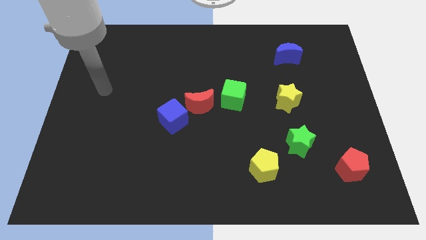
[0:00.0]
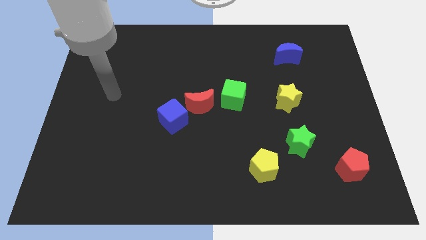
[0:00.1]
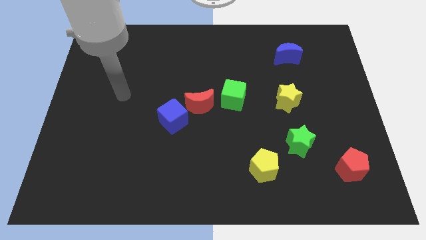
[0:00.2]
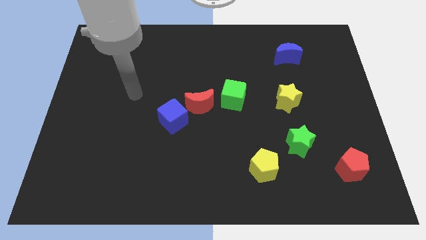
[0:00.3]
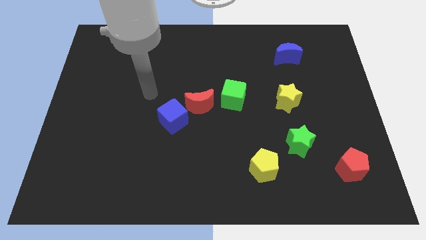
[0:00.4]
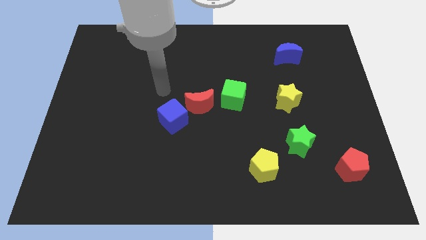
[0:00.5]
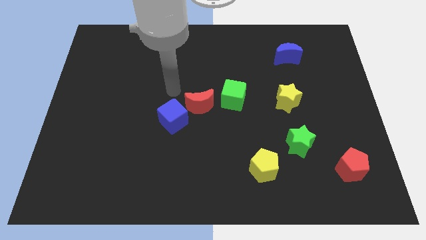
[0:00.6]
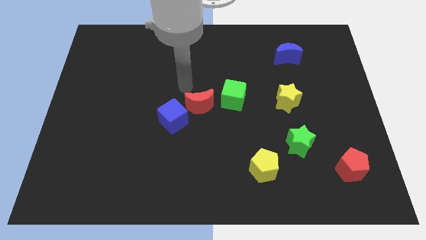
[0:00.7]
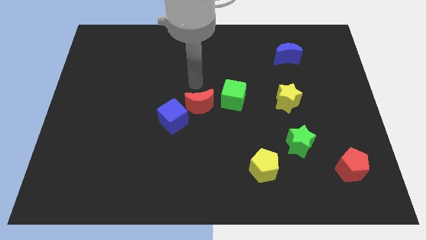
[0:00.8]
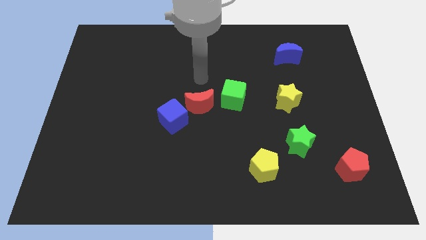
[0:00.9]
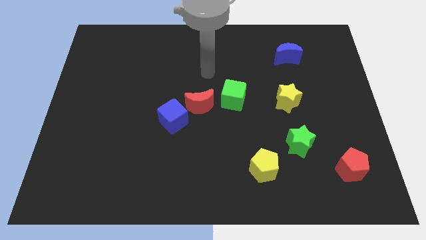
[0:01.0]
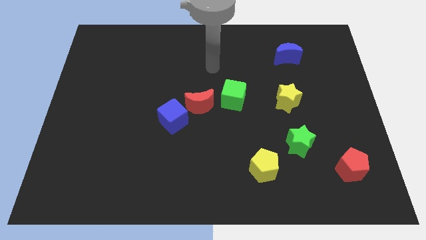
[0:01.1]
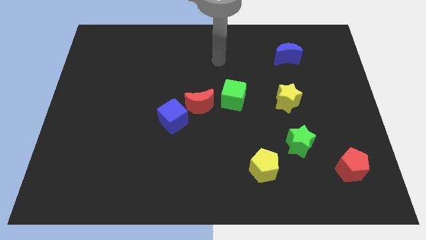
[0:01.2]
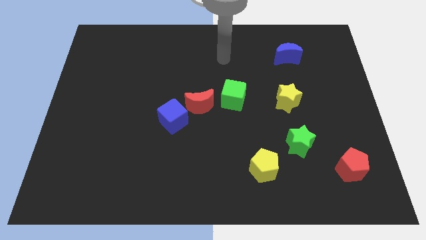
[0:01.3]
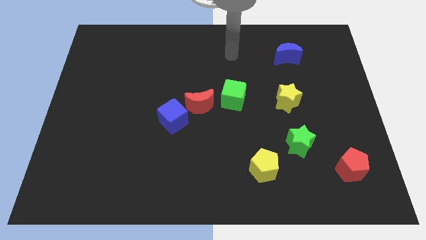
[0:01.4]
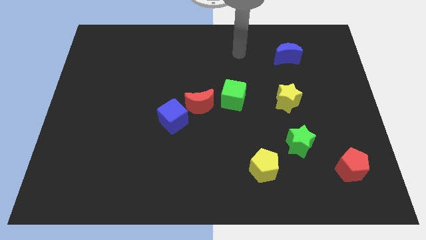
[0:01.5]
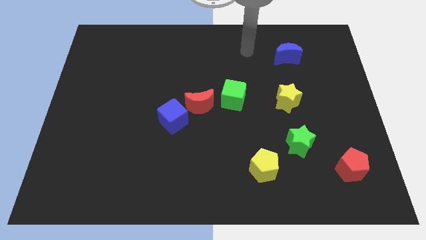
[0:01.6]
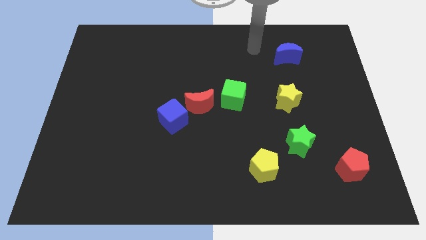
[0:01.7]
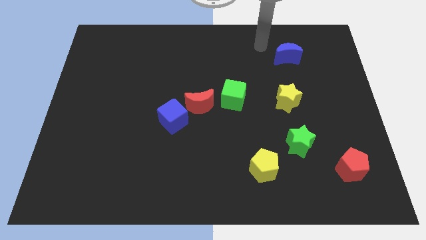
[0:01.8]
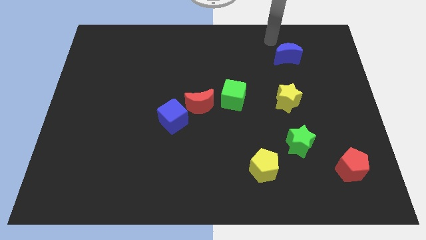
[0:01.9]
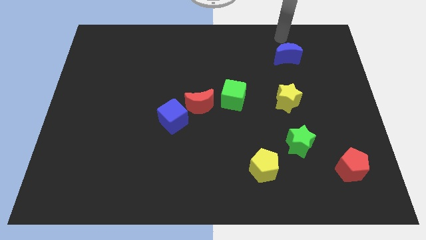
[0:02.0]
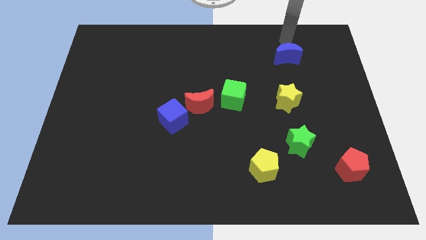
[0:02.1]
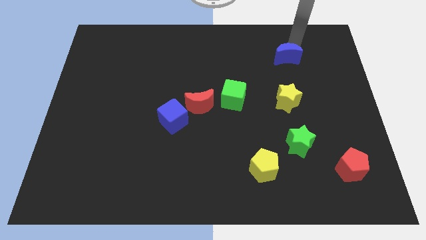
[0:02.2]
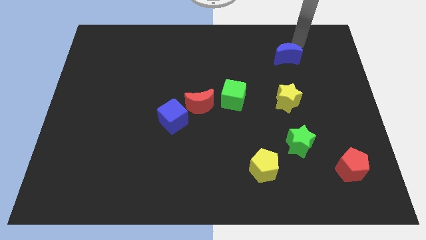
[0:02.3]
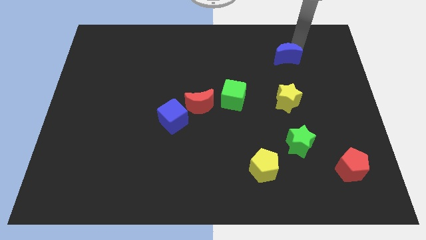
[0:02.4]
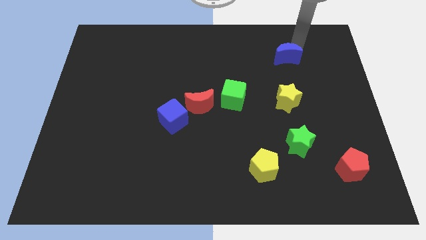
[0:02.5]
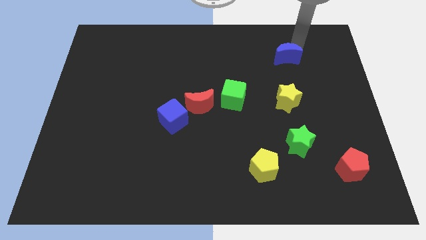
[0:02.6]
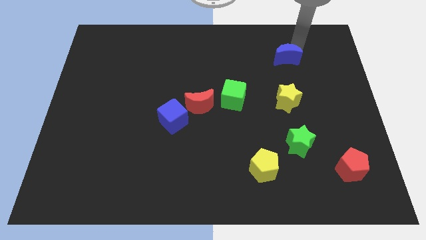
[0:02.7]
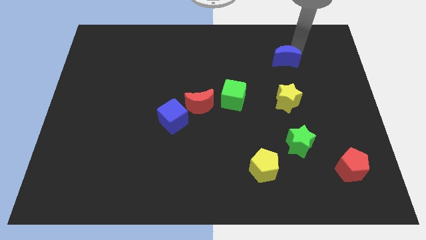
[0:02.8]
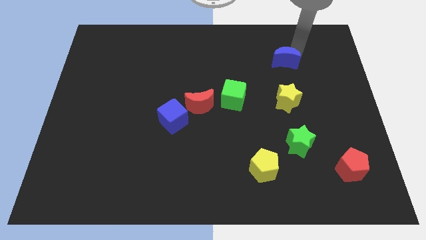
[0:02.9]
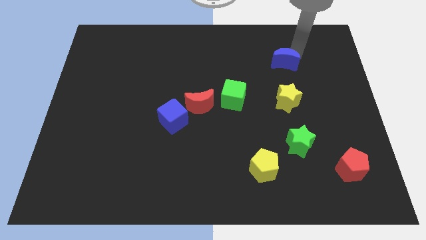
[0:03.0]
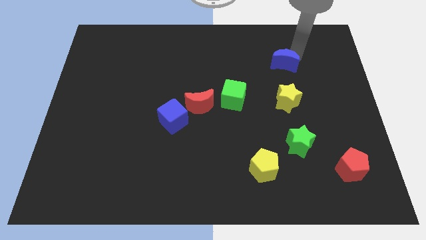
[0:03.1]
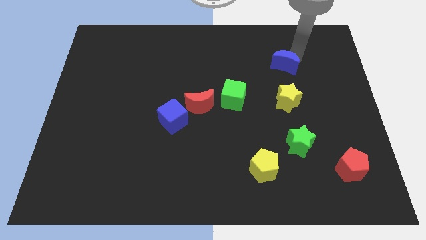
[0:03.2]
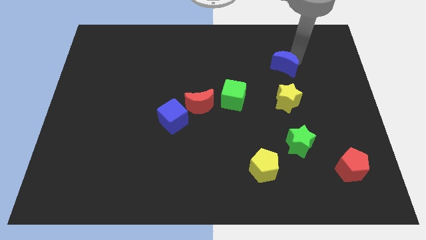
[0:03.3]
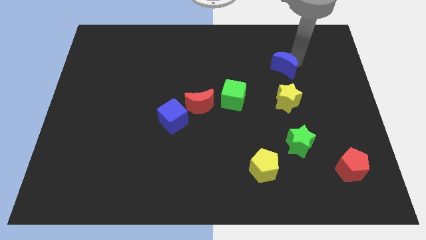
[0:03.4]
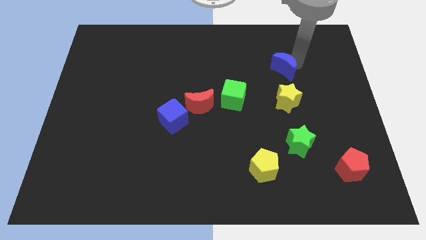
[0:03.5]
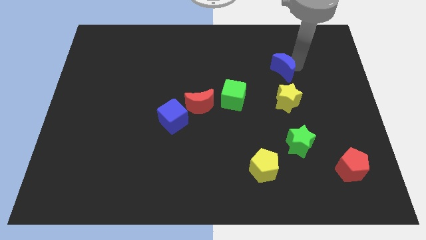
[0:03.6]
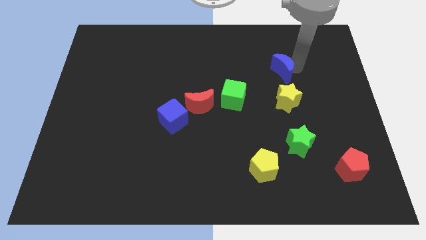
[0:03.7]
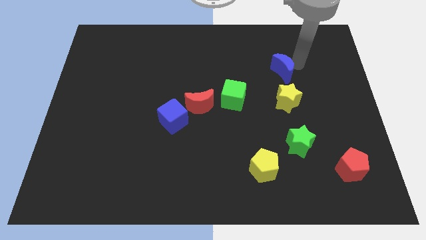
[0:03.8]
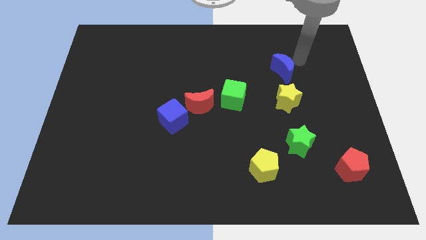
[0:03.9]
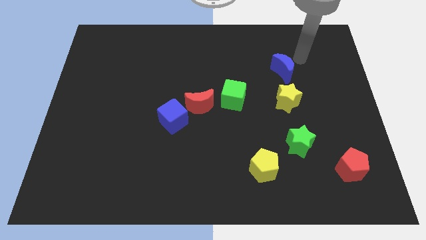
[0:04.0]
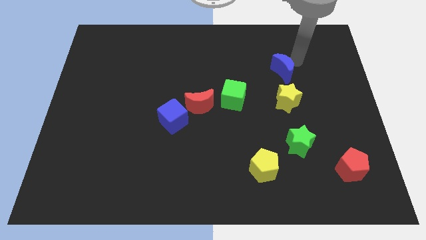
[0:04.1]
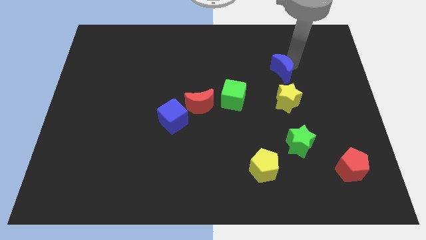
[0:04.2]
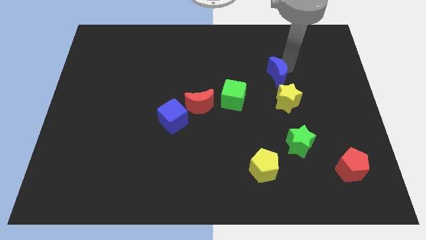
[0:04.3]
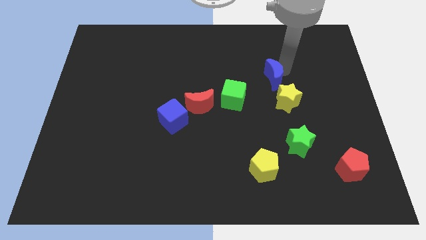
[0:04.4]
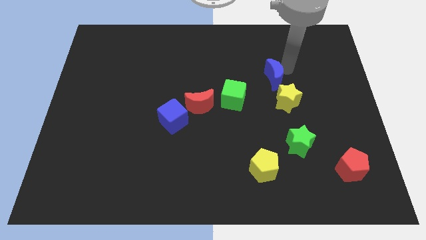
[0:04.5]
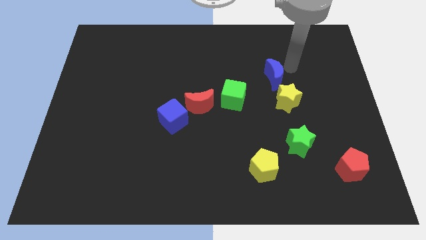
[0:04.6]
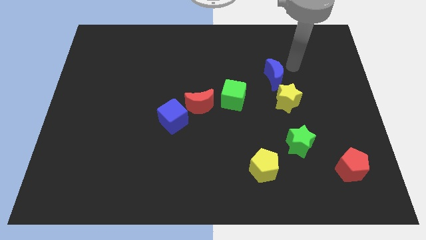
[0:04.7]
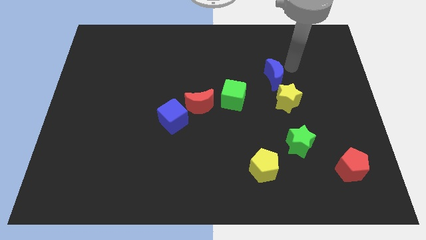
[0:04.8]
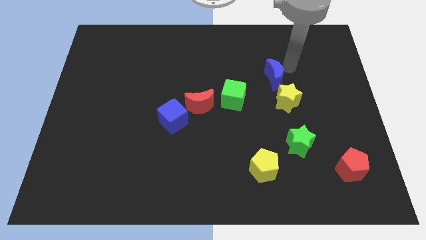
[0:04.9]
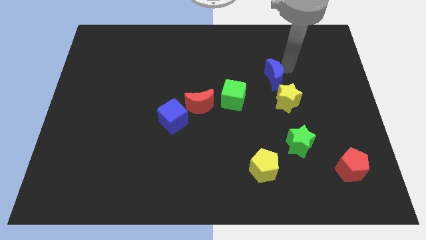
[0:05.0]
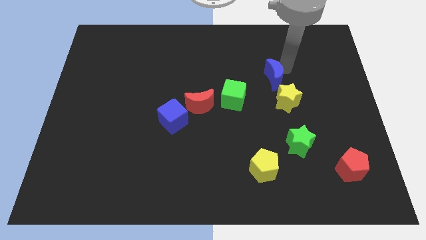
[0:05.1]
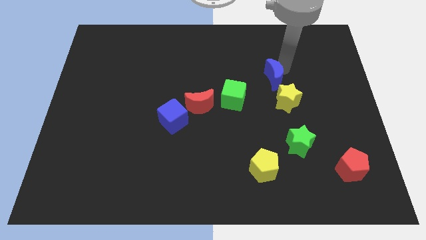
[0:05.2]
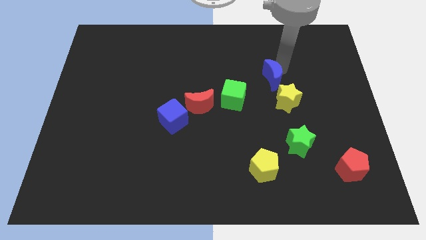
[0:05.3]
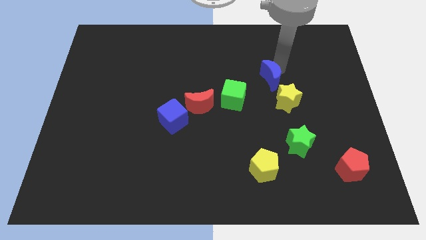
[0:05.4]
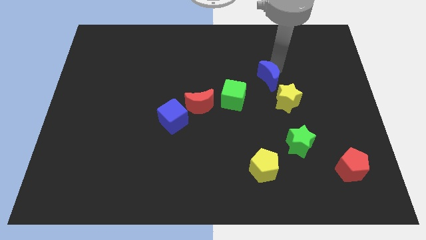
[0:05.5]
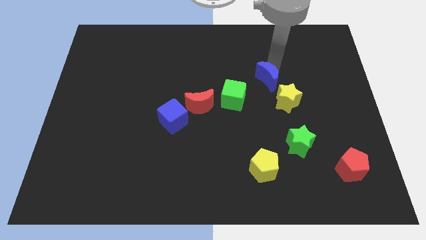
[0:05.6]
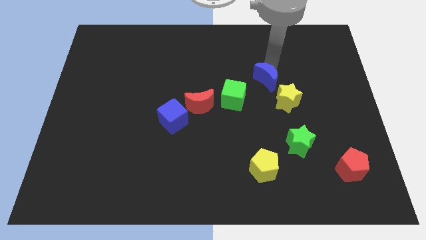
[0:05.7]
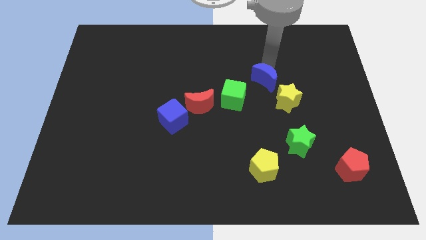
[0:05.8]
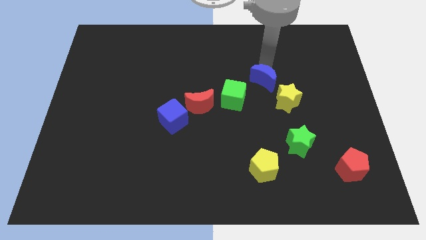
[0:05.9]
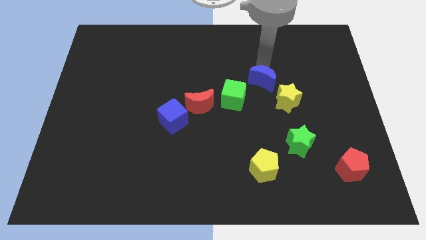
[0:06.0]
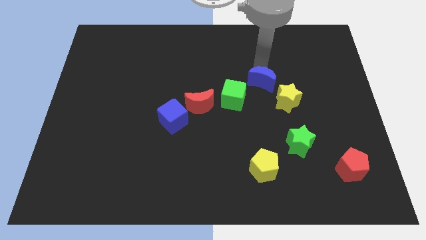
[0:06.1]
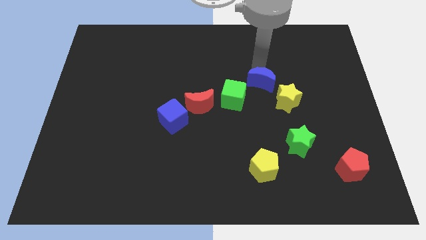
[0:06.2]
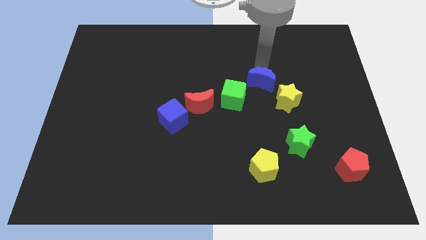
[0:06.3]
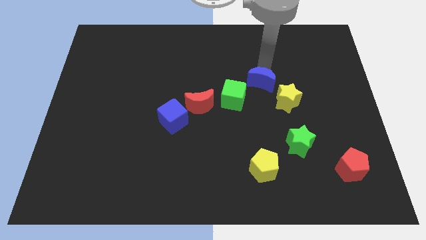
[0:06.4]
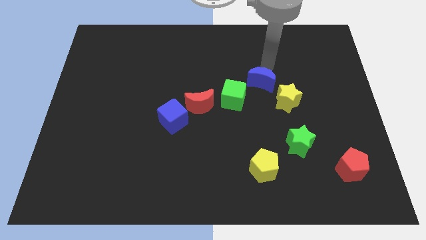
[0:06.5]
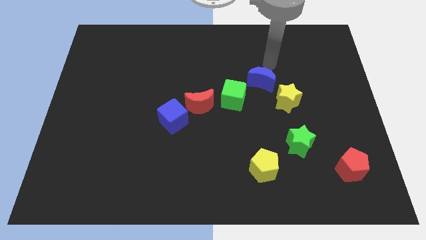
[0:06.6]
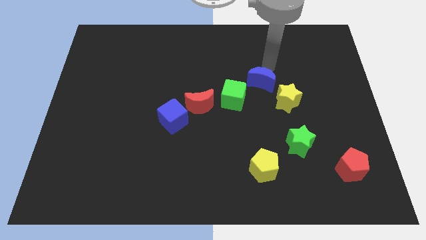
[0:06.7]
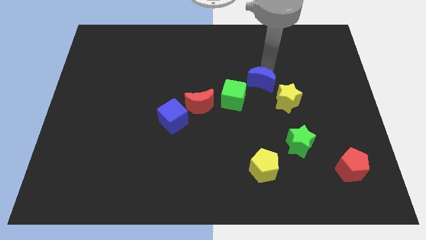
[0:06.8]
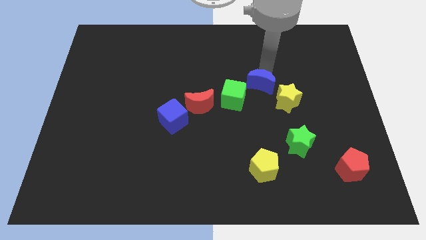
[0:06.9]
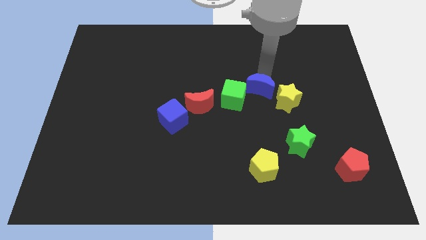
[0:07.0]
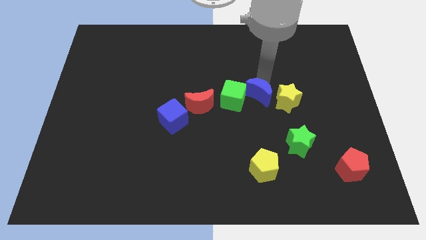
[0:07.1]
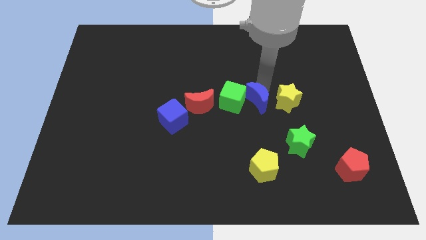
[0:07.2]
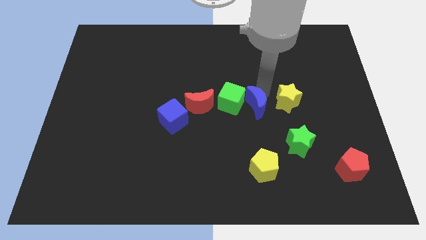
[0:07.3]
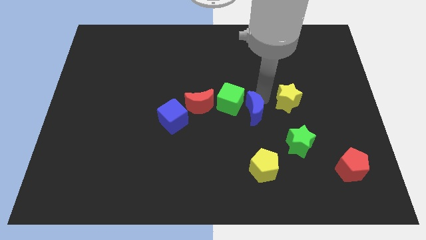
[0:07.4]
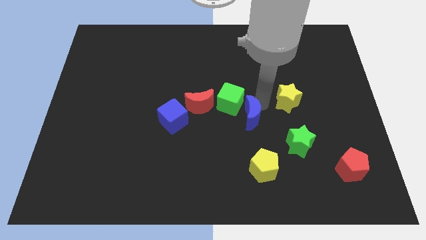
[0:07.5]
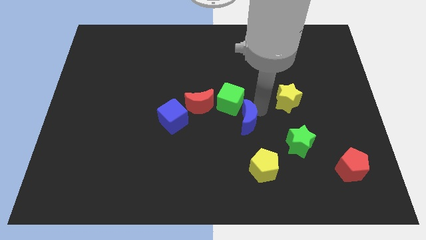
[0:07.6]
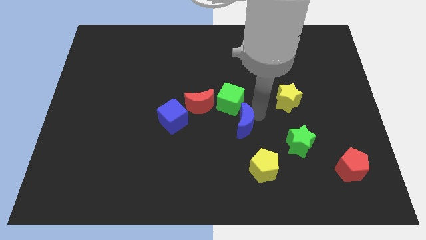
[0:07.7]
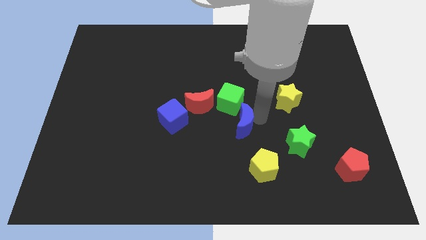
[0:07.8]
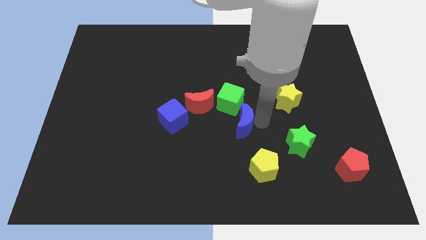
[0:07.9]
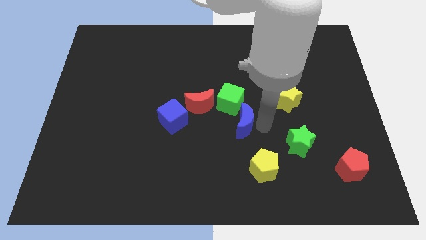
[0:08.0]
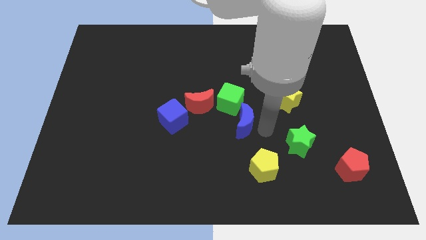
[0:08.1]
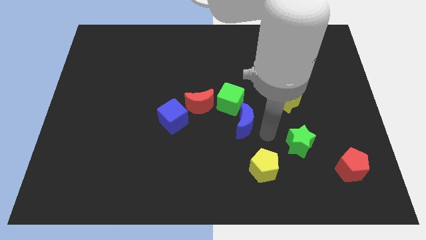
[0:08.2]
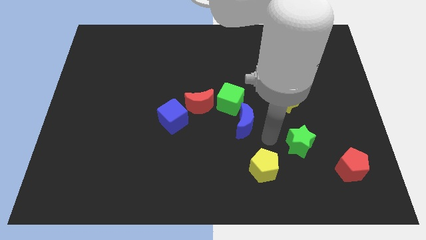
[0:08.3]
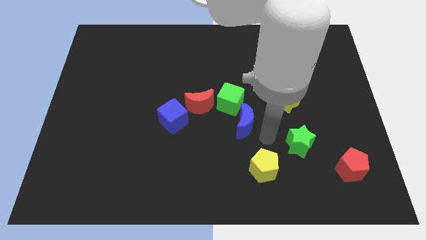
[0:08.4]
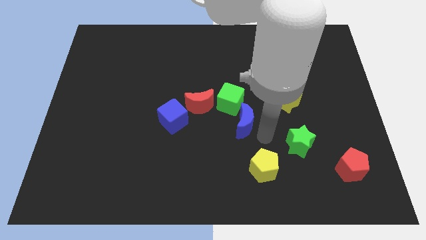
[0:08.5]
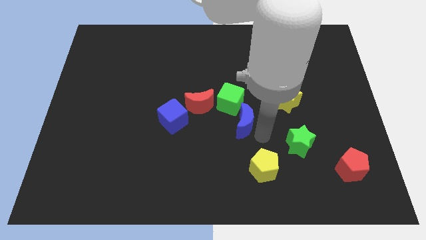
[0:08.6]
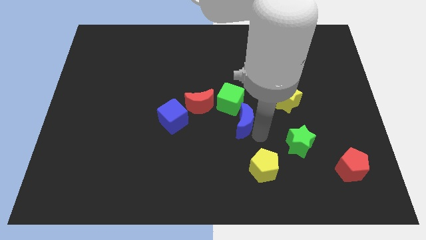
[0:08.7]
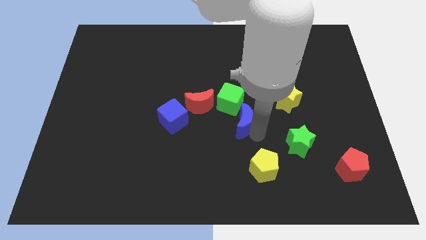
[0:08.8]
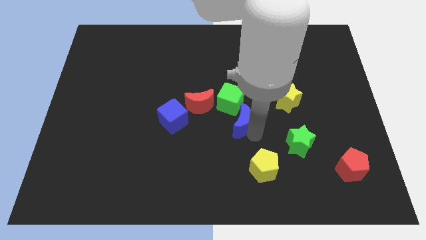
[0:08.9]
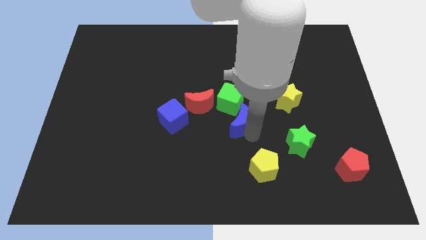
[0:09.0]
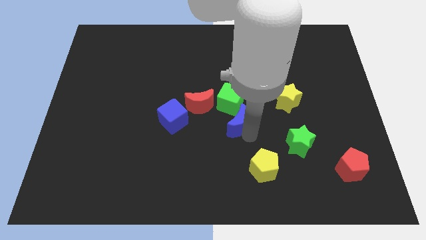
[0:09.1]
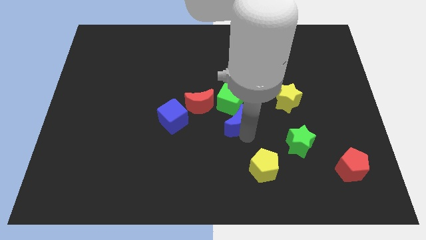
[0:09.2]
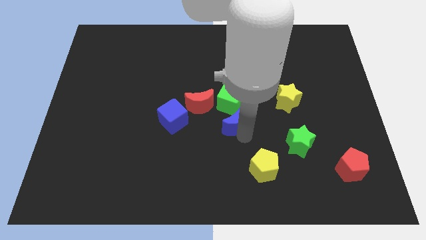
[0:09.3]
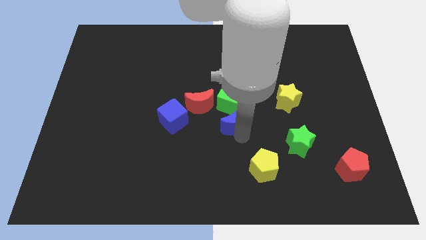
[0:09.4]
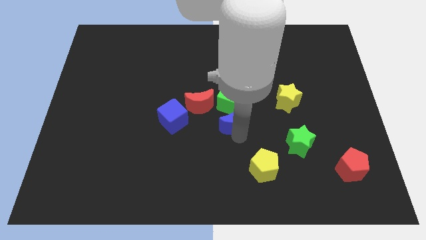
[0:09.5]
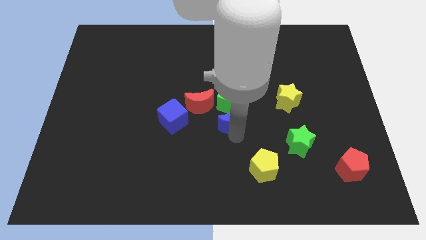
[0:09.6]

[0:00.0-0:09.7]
put the blue moon diagonally down and to the left of the green cube
